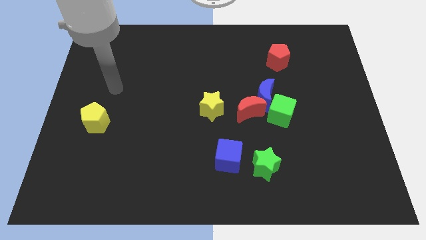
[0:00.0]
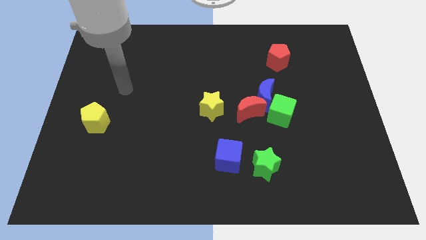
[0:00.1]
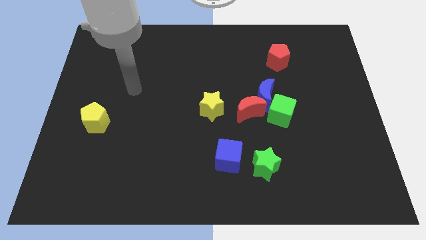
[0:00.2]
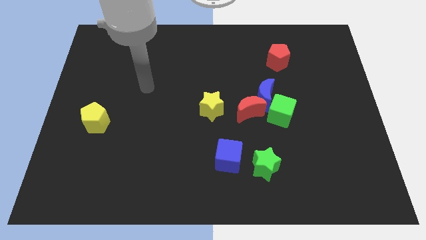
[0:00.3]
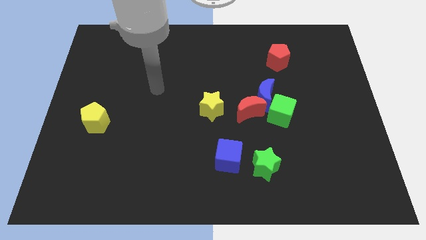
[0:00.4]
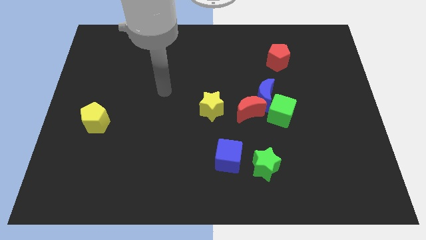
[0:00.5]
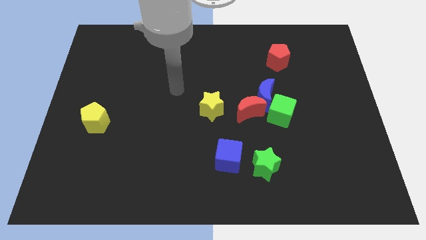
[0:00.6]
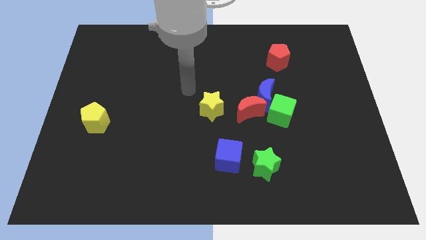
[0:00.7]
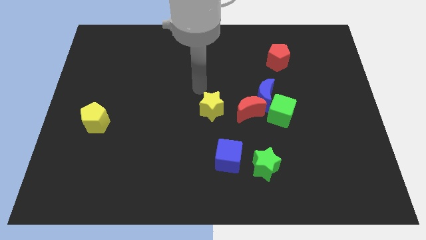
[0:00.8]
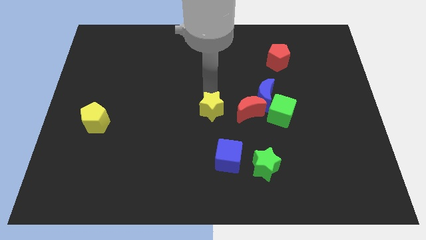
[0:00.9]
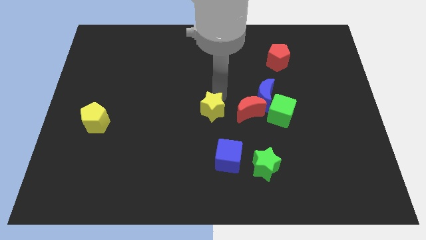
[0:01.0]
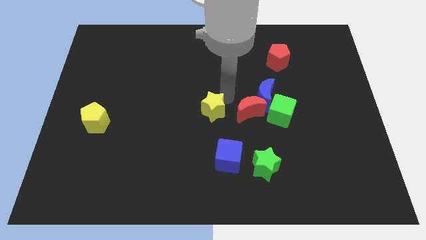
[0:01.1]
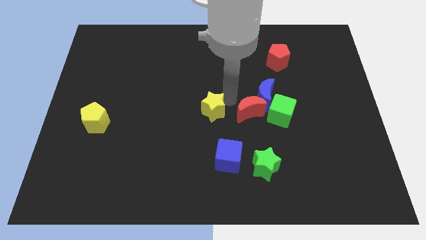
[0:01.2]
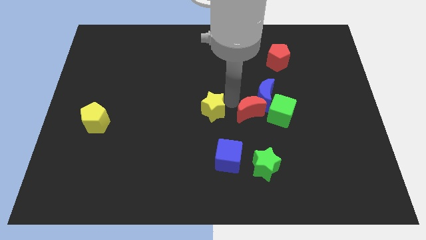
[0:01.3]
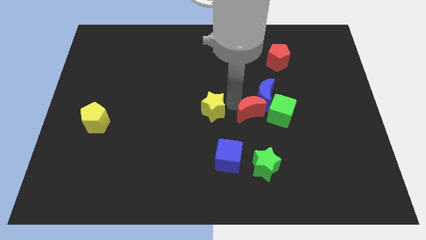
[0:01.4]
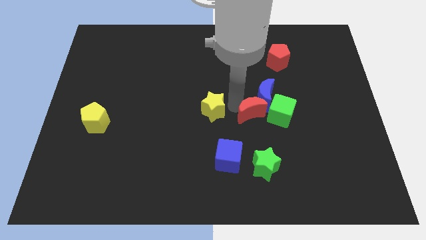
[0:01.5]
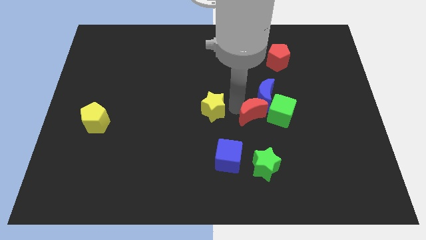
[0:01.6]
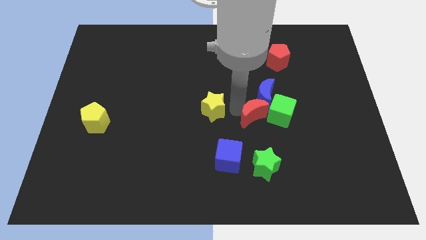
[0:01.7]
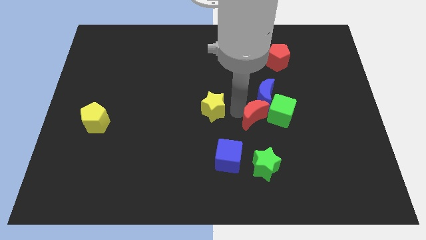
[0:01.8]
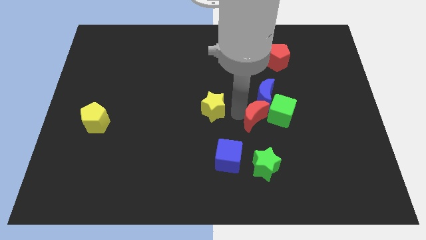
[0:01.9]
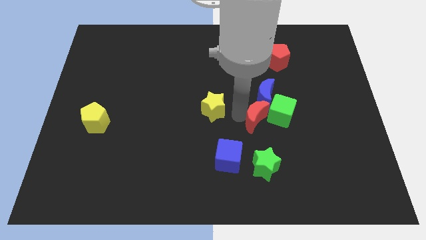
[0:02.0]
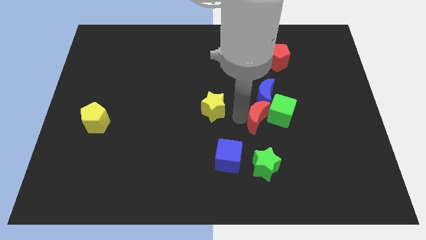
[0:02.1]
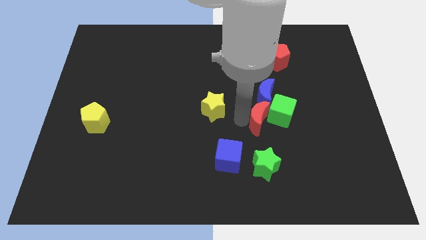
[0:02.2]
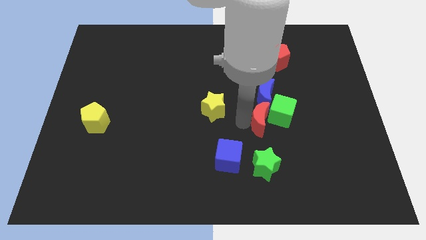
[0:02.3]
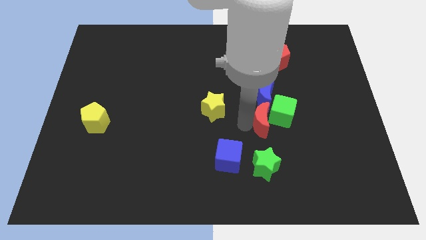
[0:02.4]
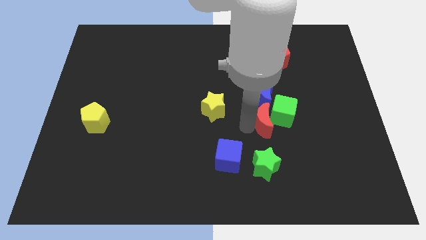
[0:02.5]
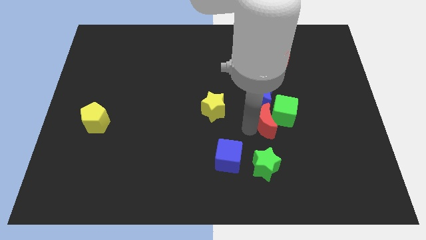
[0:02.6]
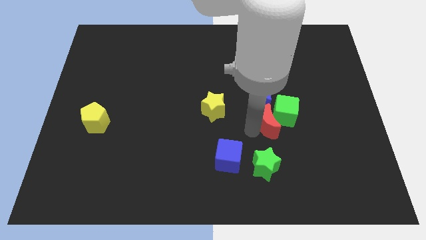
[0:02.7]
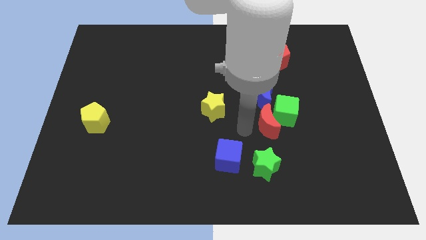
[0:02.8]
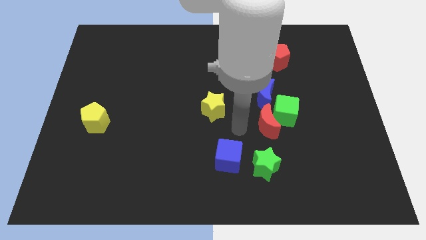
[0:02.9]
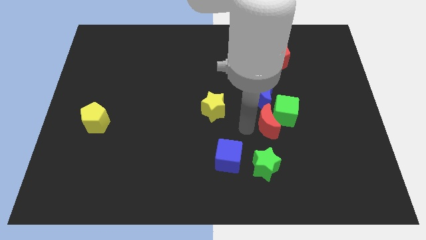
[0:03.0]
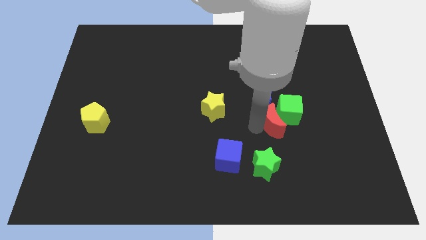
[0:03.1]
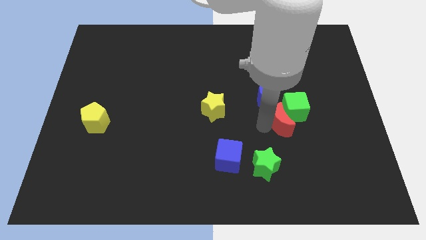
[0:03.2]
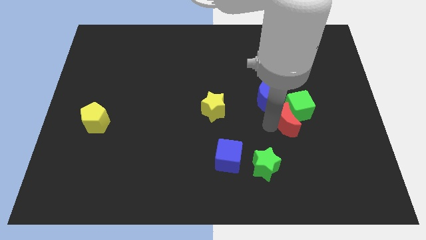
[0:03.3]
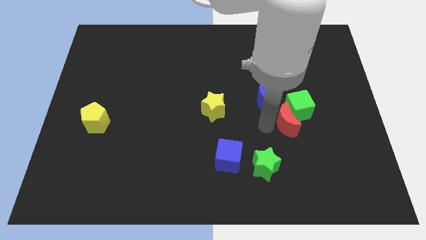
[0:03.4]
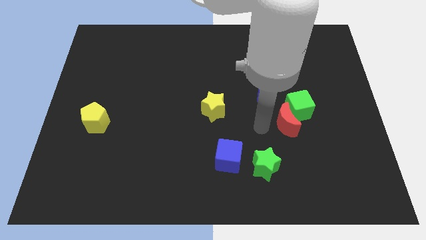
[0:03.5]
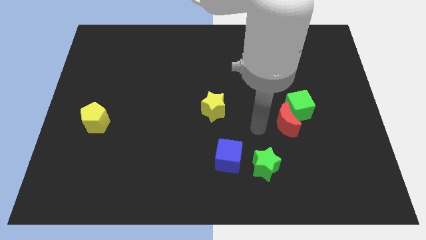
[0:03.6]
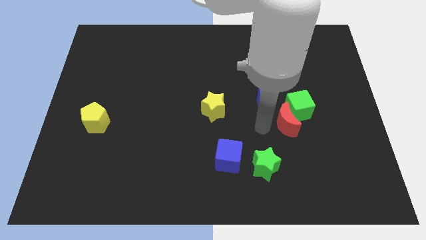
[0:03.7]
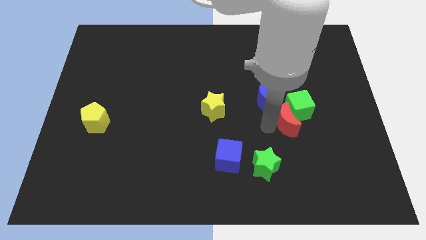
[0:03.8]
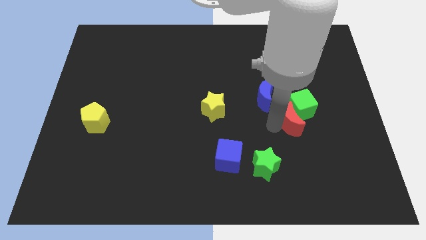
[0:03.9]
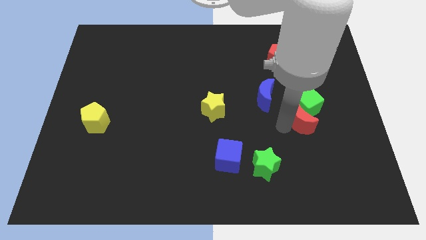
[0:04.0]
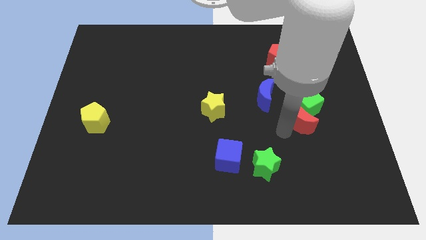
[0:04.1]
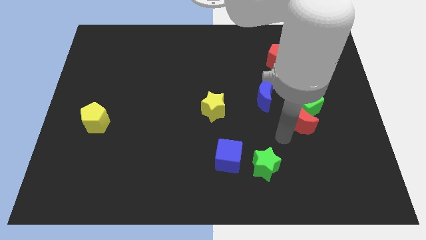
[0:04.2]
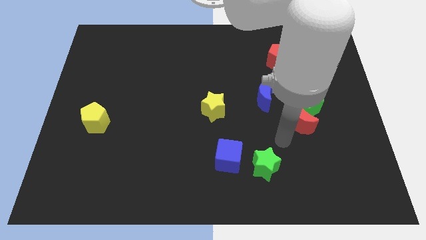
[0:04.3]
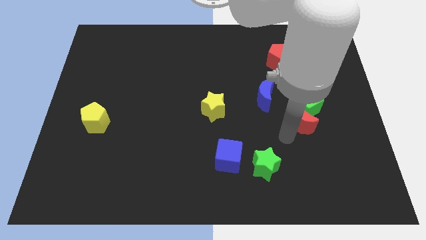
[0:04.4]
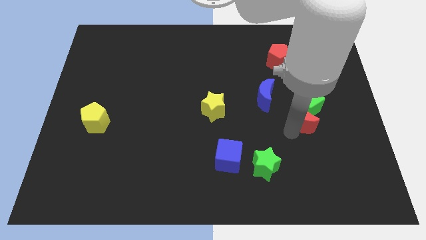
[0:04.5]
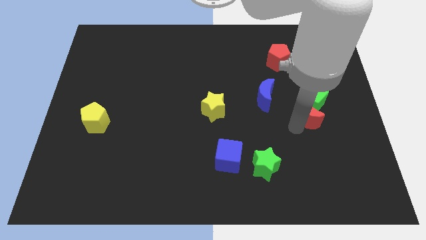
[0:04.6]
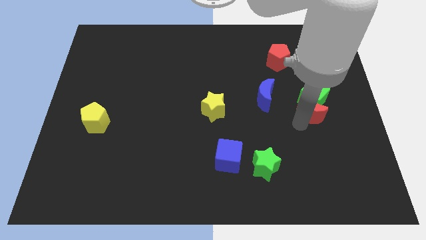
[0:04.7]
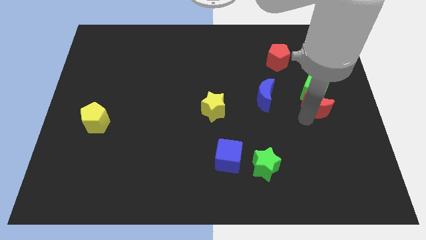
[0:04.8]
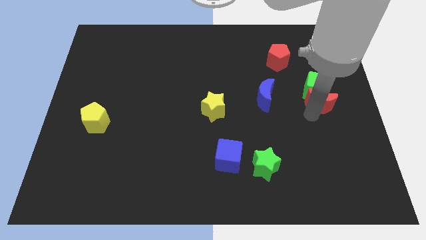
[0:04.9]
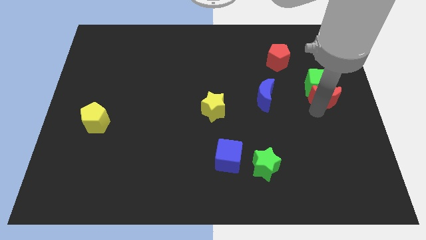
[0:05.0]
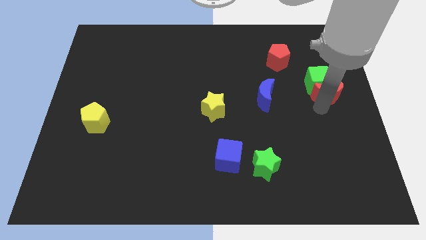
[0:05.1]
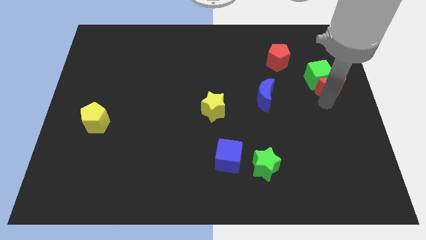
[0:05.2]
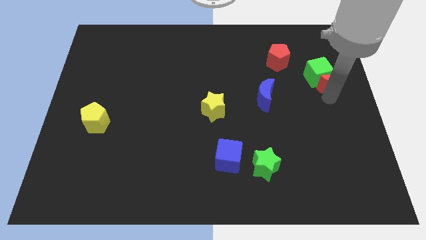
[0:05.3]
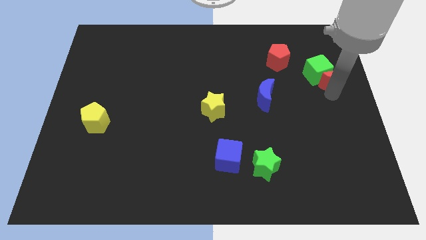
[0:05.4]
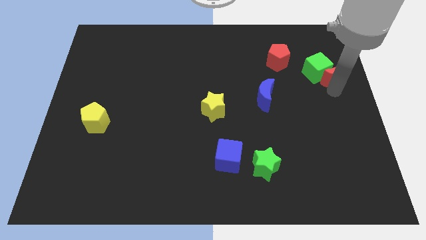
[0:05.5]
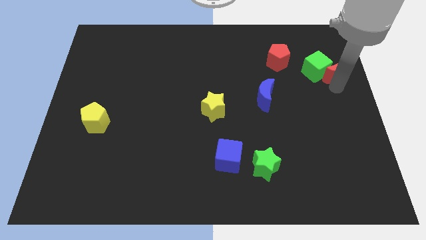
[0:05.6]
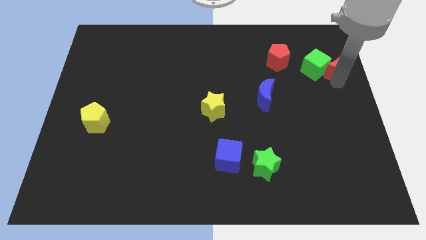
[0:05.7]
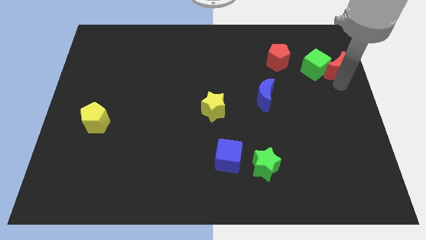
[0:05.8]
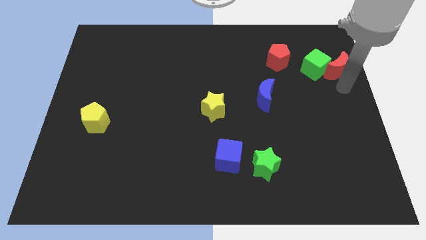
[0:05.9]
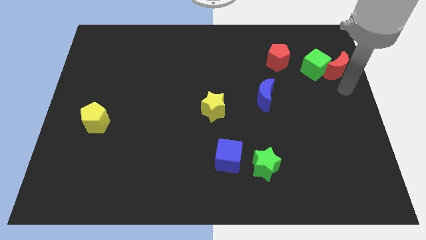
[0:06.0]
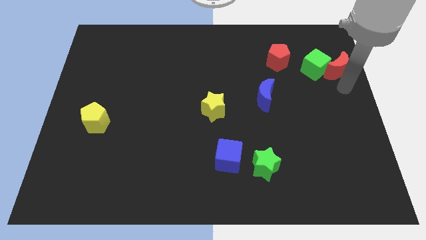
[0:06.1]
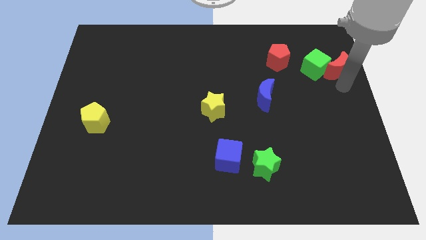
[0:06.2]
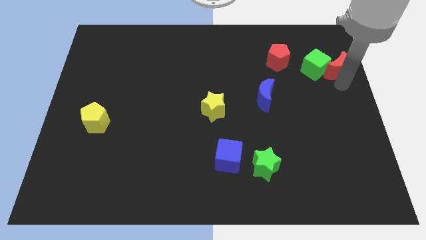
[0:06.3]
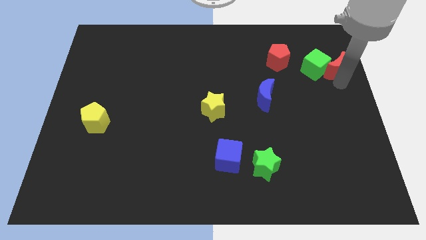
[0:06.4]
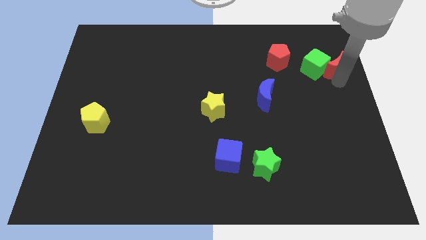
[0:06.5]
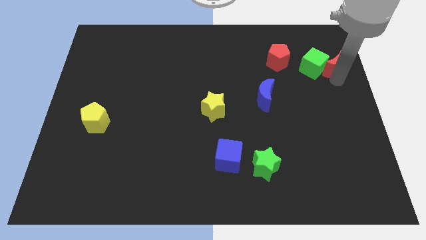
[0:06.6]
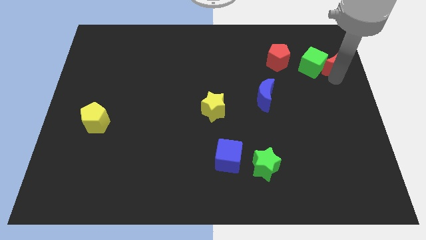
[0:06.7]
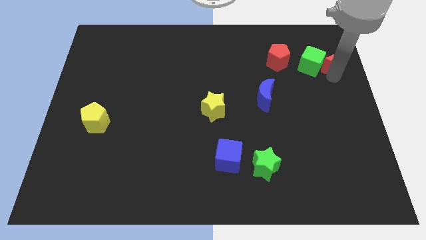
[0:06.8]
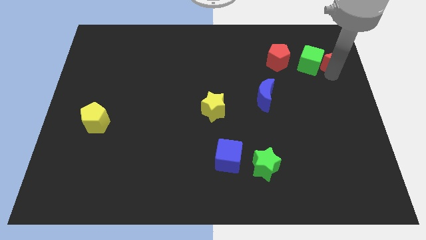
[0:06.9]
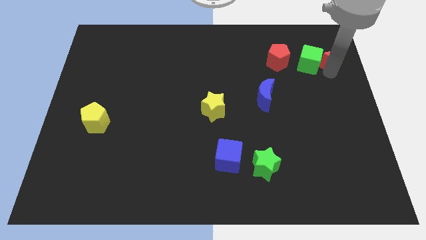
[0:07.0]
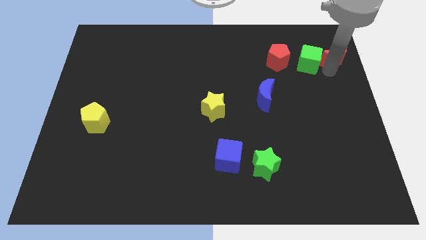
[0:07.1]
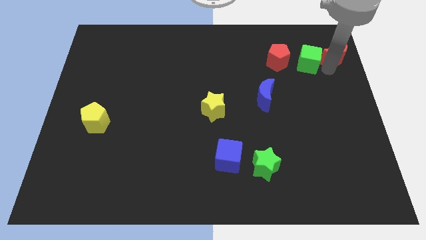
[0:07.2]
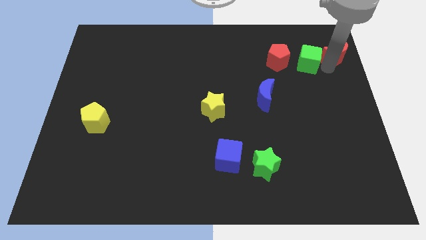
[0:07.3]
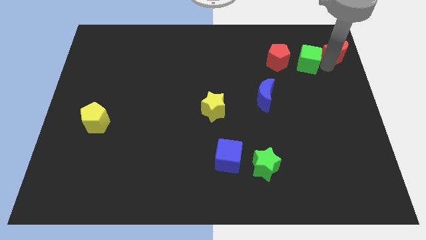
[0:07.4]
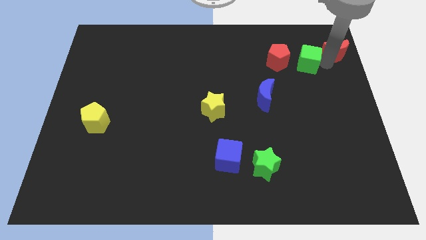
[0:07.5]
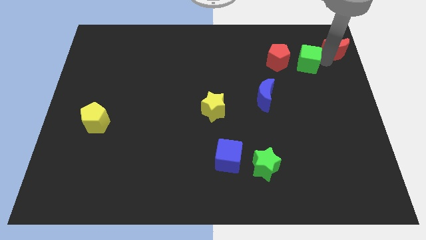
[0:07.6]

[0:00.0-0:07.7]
move the red moon to the upper right corner
